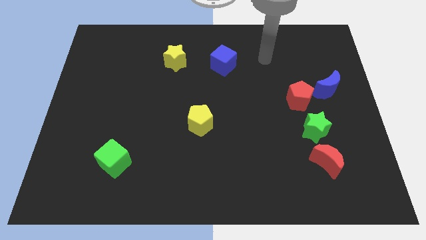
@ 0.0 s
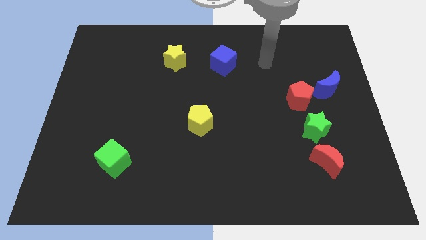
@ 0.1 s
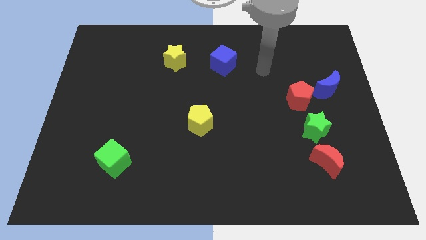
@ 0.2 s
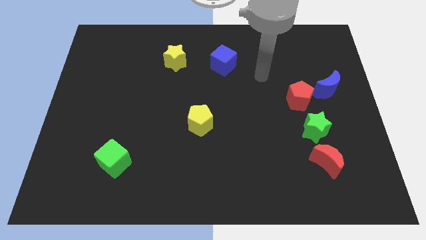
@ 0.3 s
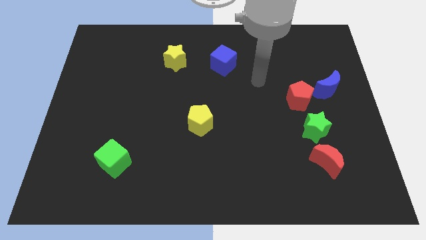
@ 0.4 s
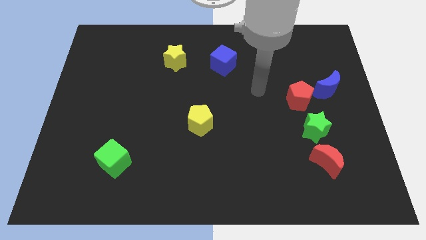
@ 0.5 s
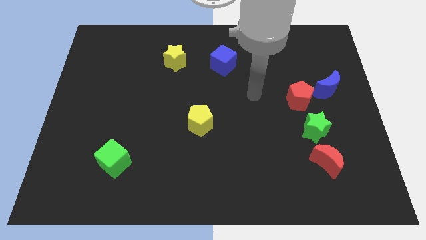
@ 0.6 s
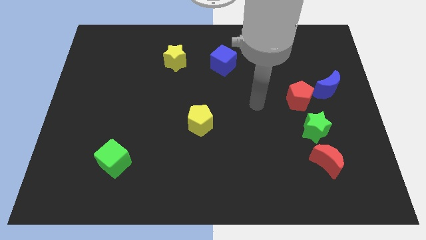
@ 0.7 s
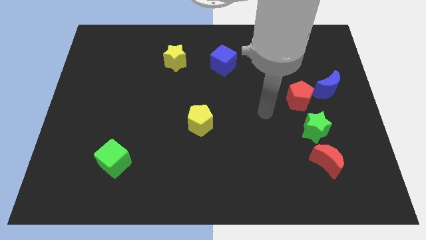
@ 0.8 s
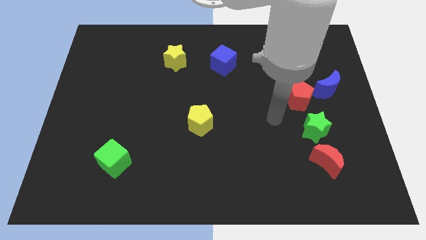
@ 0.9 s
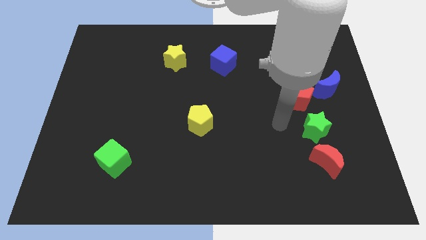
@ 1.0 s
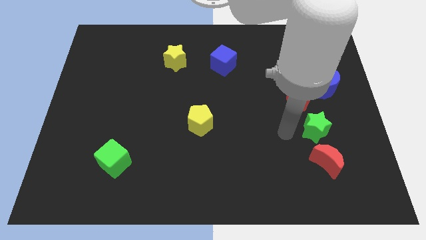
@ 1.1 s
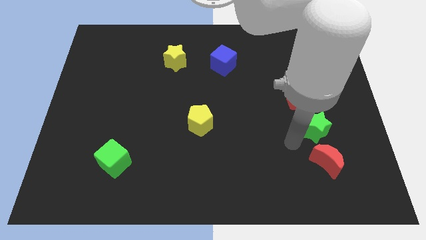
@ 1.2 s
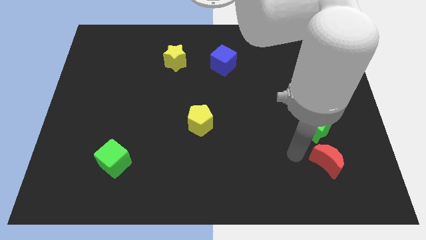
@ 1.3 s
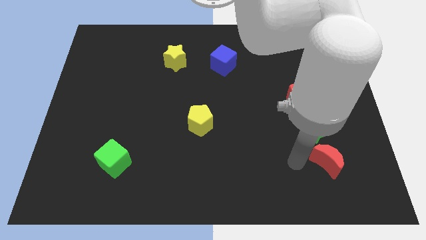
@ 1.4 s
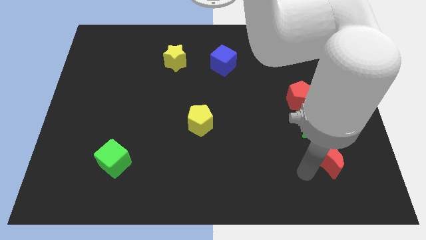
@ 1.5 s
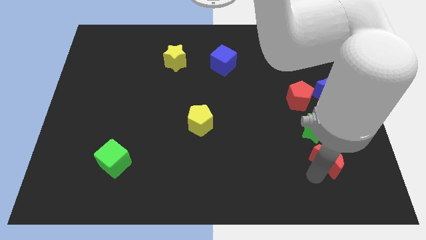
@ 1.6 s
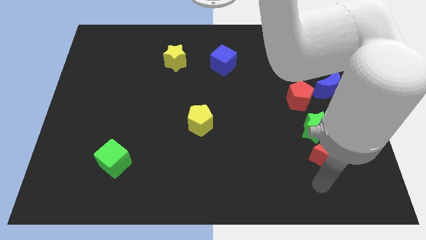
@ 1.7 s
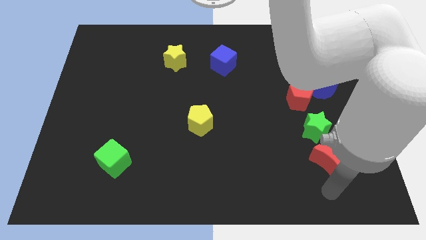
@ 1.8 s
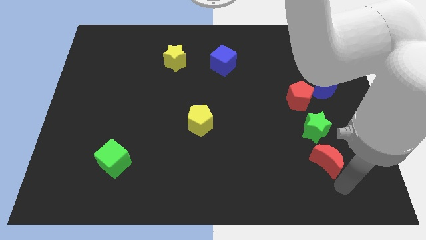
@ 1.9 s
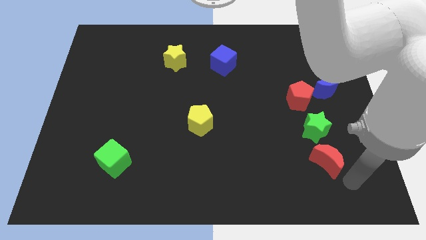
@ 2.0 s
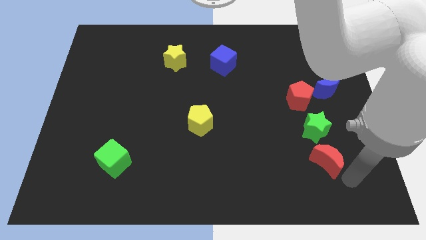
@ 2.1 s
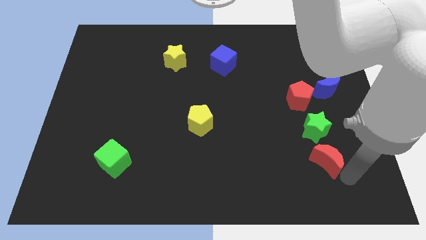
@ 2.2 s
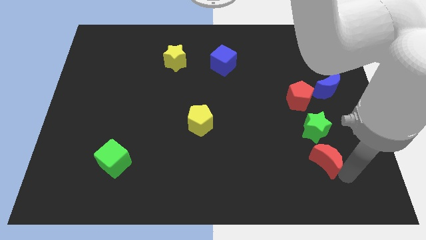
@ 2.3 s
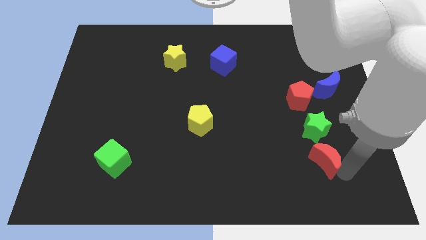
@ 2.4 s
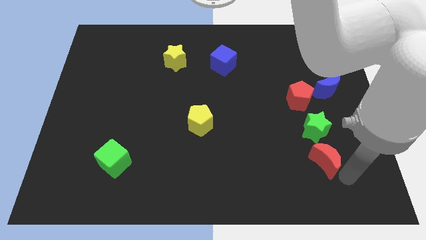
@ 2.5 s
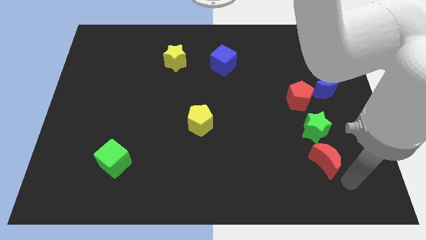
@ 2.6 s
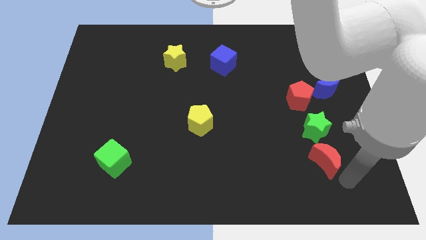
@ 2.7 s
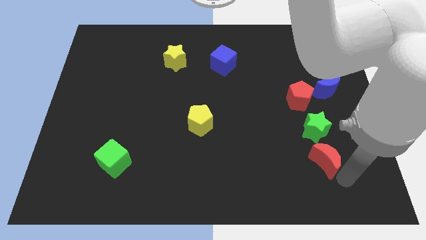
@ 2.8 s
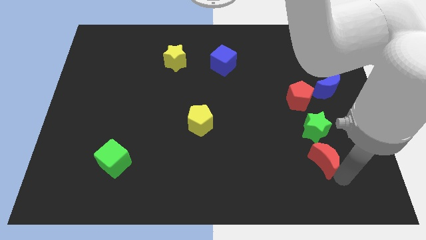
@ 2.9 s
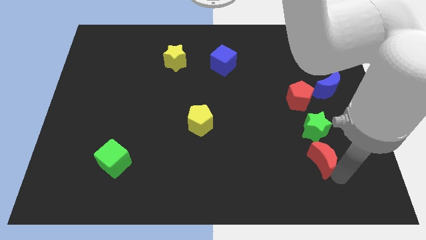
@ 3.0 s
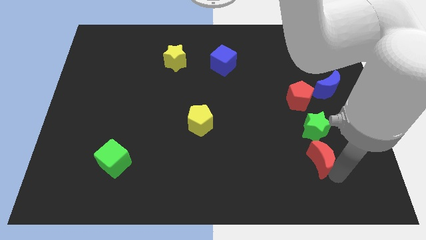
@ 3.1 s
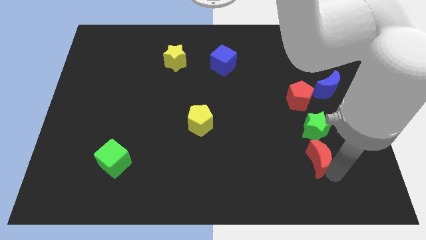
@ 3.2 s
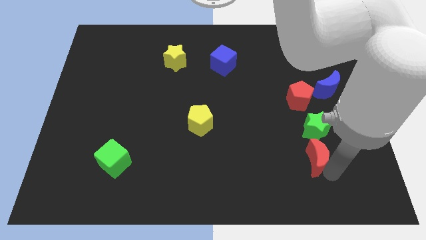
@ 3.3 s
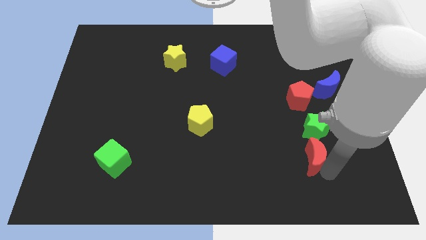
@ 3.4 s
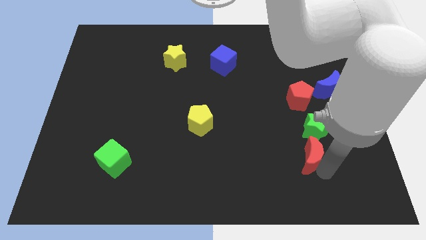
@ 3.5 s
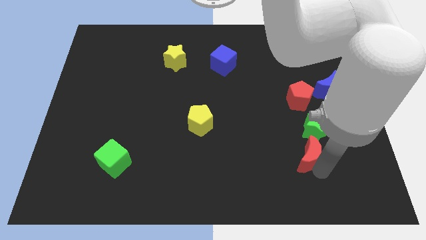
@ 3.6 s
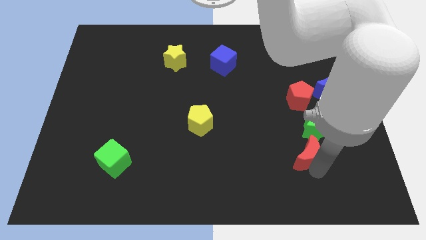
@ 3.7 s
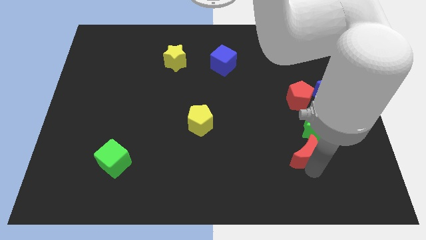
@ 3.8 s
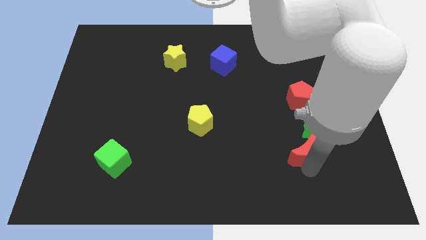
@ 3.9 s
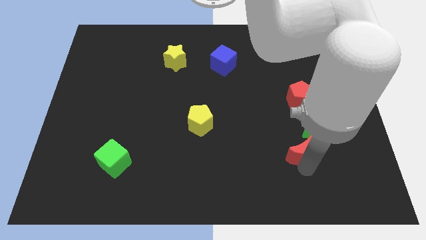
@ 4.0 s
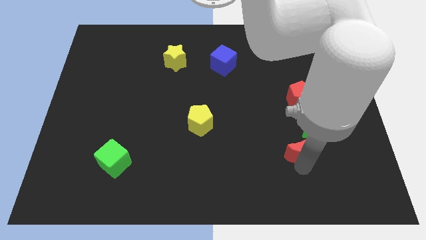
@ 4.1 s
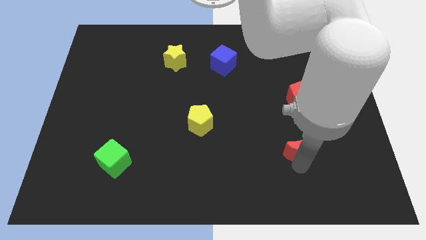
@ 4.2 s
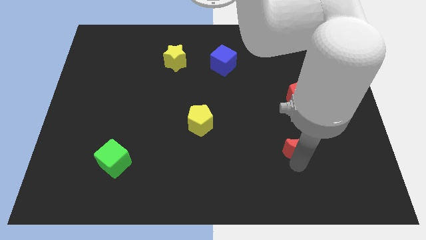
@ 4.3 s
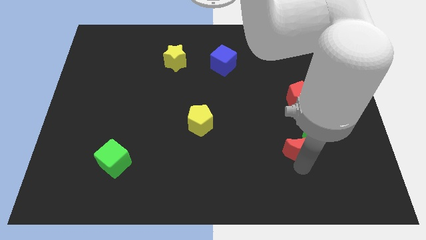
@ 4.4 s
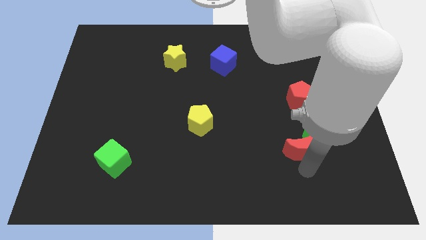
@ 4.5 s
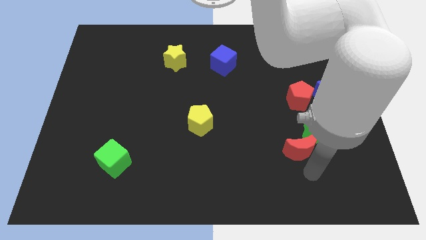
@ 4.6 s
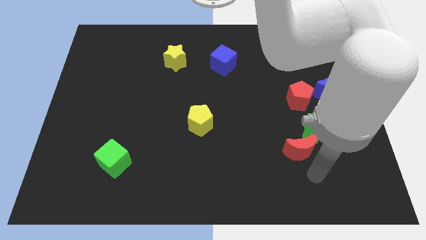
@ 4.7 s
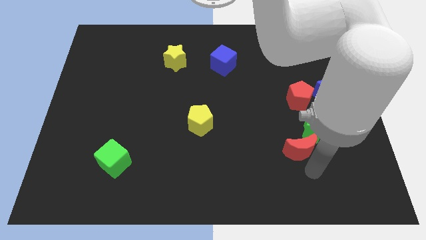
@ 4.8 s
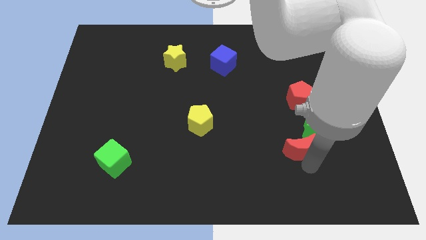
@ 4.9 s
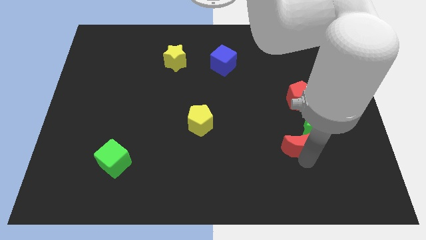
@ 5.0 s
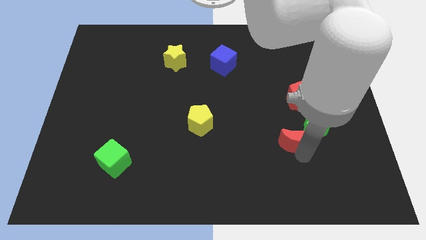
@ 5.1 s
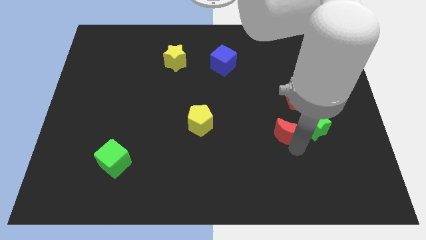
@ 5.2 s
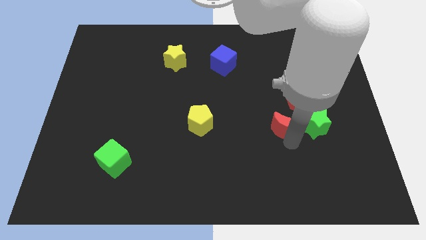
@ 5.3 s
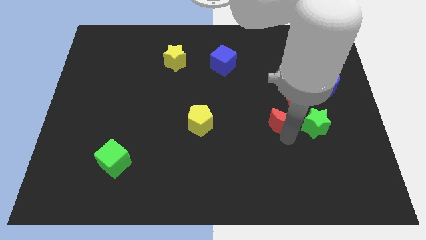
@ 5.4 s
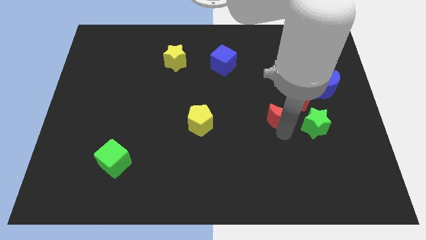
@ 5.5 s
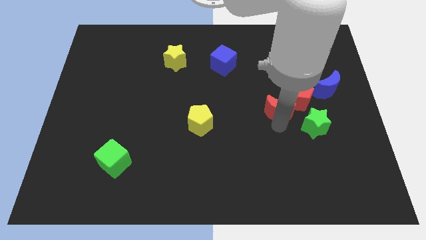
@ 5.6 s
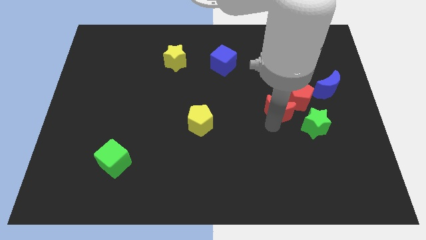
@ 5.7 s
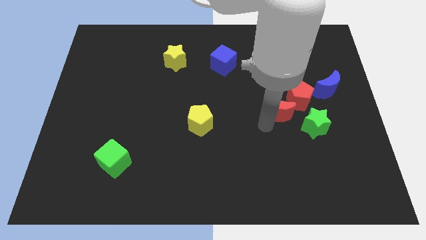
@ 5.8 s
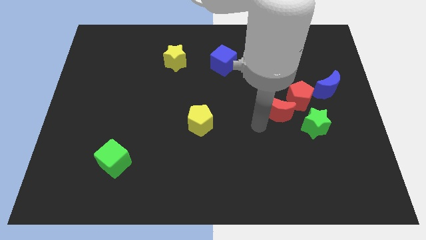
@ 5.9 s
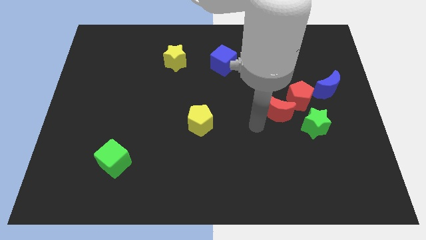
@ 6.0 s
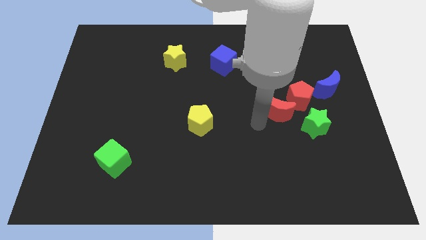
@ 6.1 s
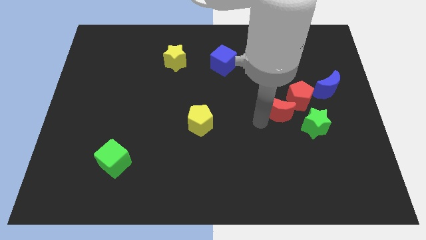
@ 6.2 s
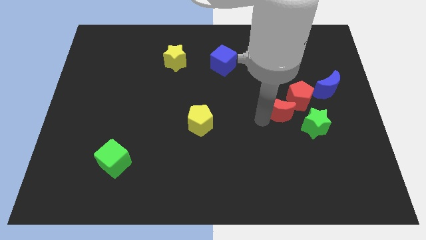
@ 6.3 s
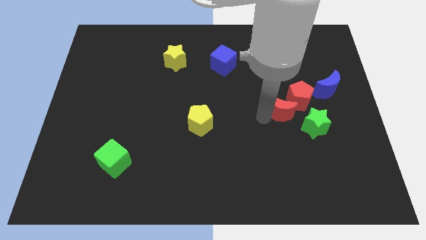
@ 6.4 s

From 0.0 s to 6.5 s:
put the red moon next to the red pentagon

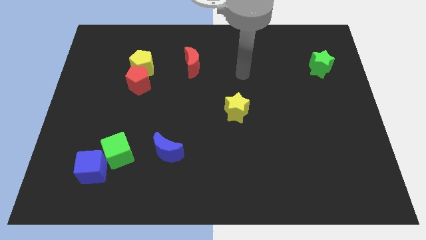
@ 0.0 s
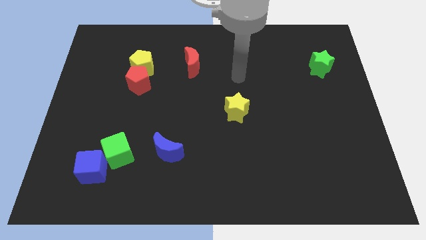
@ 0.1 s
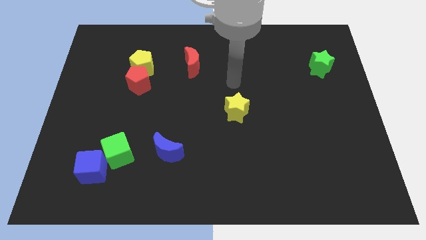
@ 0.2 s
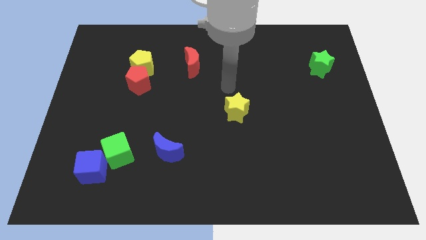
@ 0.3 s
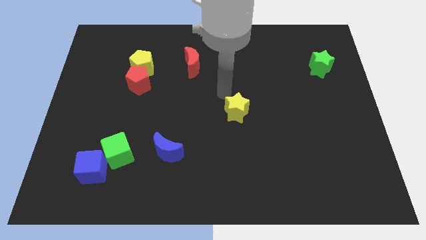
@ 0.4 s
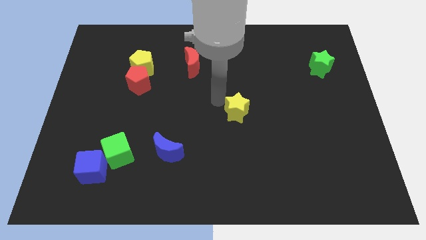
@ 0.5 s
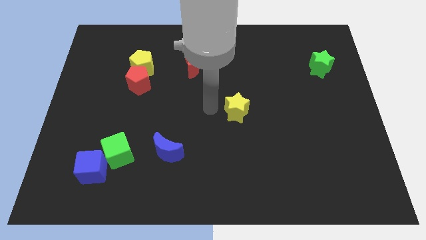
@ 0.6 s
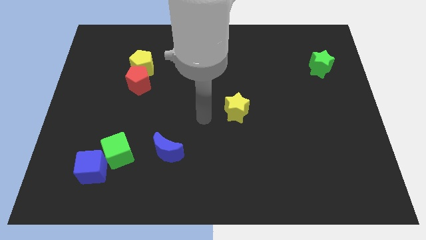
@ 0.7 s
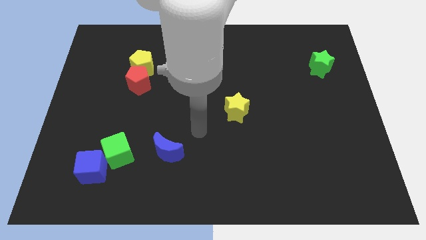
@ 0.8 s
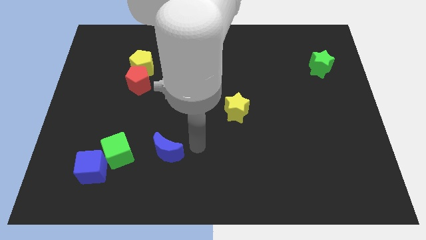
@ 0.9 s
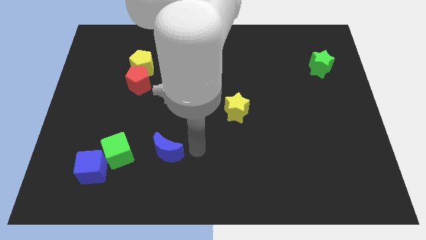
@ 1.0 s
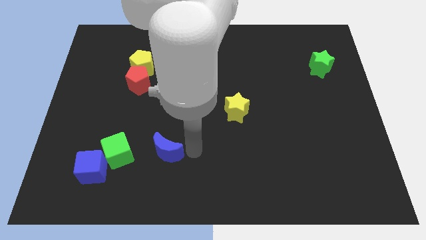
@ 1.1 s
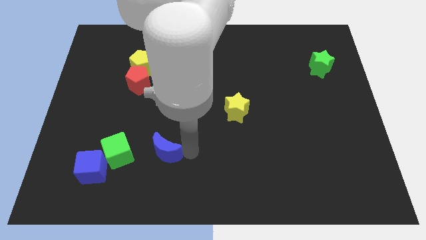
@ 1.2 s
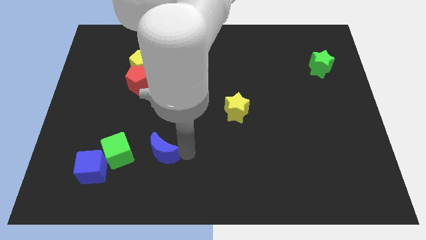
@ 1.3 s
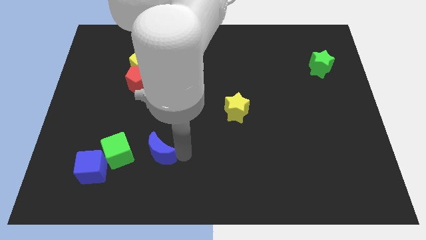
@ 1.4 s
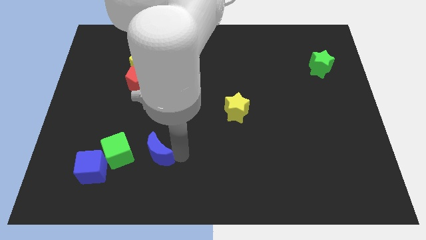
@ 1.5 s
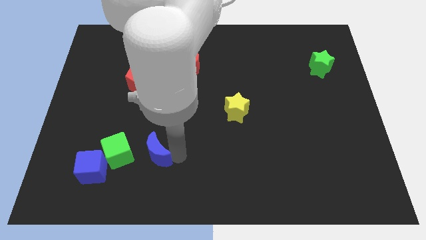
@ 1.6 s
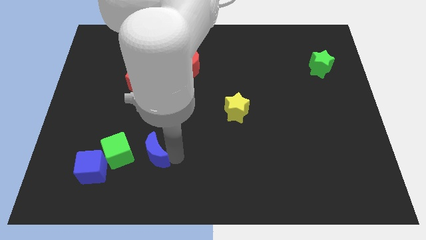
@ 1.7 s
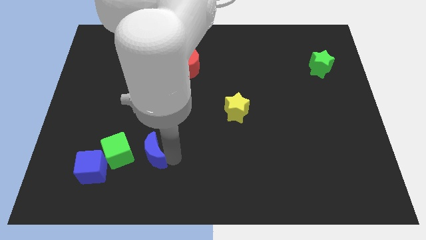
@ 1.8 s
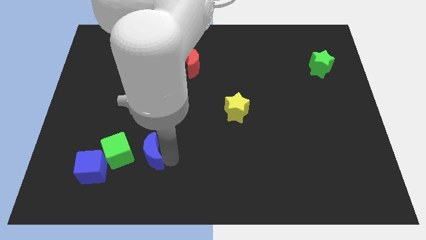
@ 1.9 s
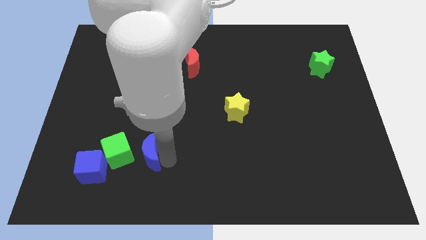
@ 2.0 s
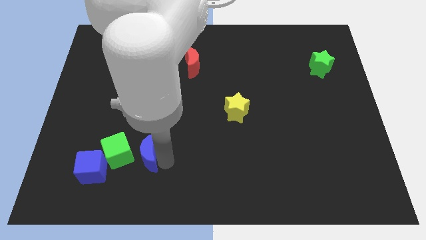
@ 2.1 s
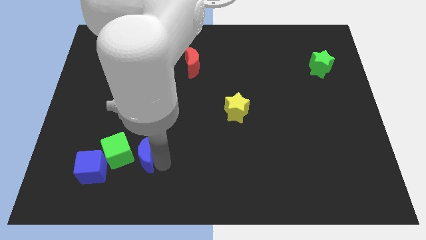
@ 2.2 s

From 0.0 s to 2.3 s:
put the blue moon next to the green cube
